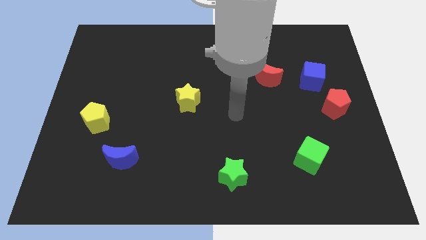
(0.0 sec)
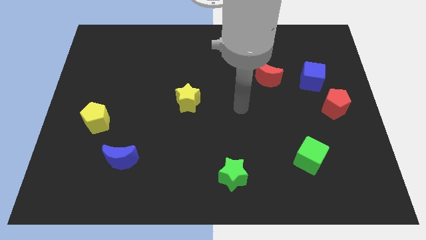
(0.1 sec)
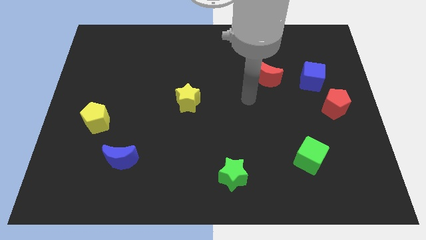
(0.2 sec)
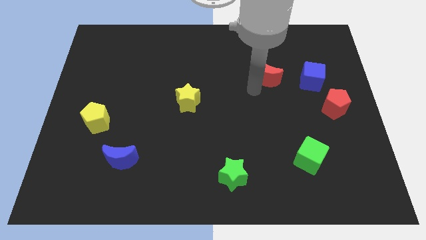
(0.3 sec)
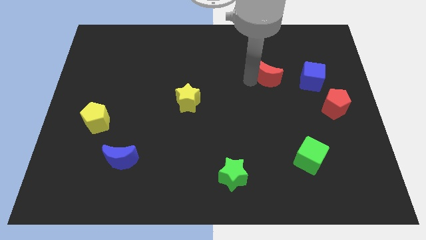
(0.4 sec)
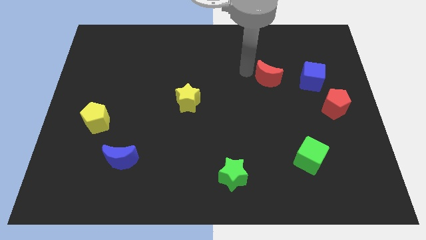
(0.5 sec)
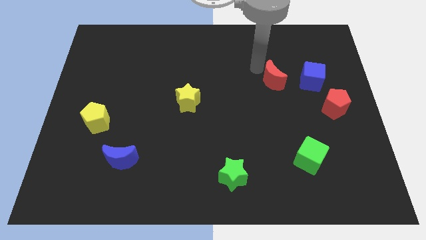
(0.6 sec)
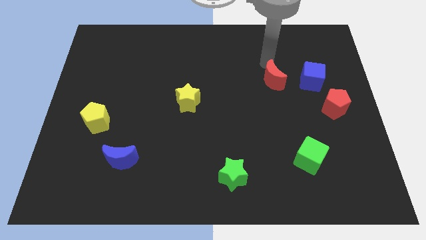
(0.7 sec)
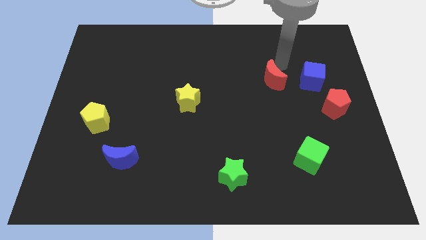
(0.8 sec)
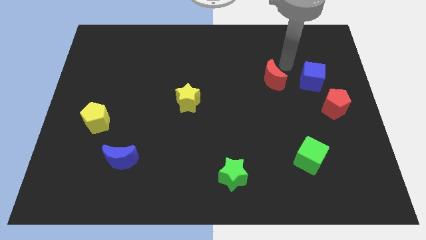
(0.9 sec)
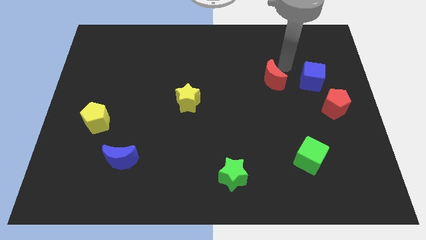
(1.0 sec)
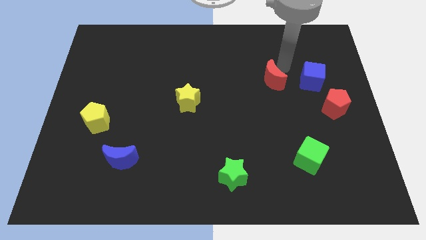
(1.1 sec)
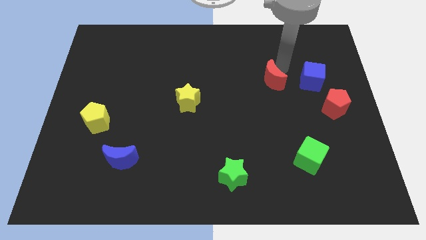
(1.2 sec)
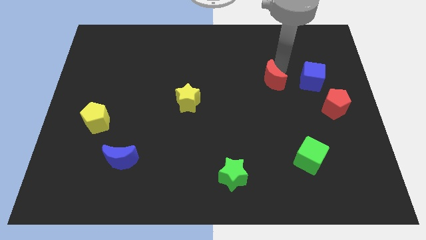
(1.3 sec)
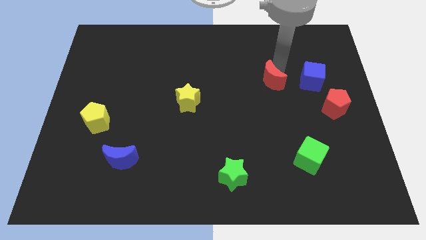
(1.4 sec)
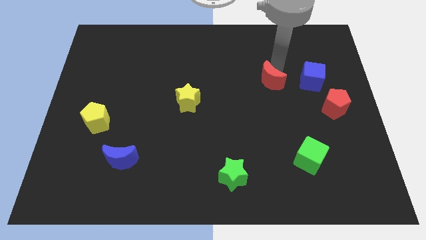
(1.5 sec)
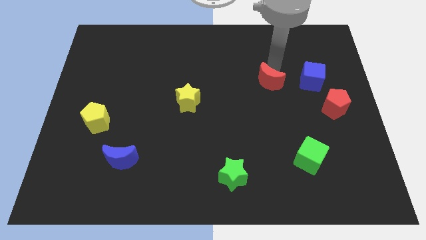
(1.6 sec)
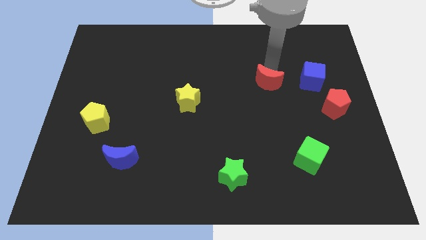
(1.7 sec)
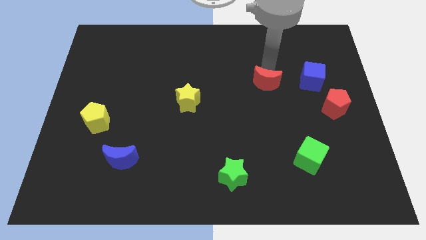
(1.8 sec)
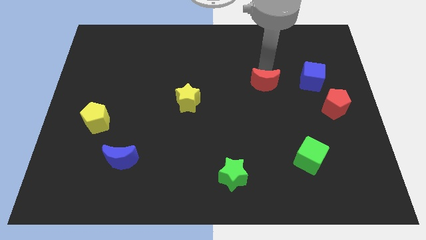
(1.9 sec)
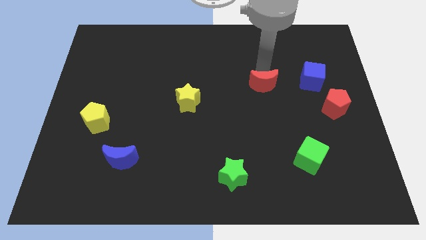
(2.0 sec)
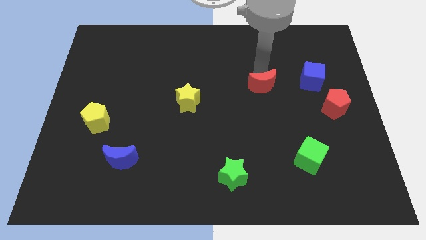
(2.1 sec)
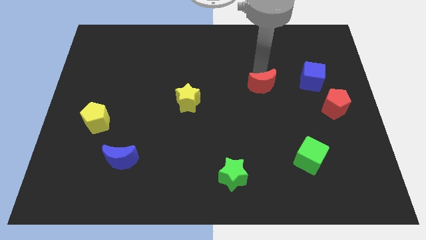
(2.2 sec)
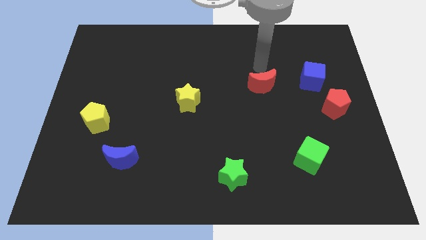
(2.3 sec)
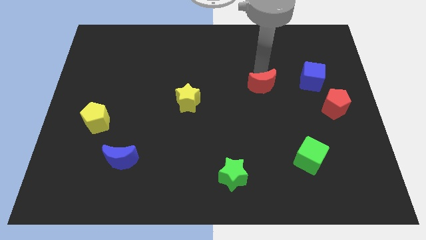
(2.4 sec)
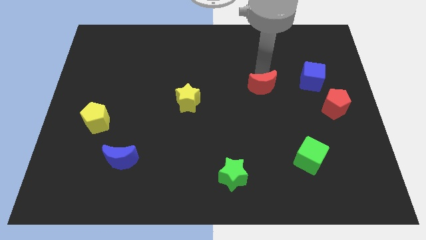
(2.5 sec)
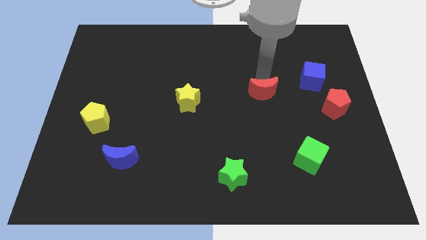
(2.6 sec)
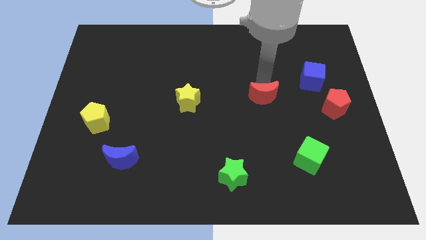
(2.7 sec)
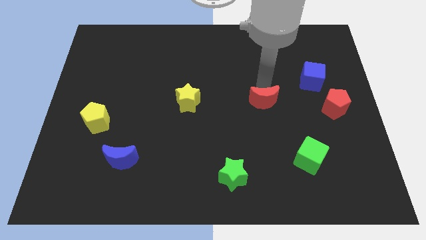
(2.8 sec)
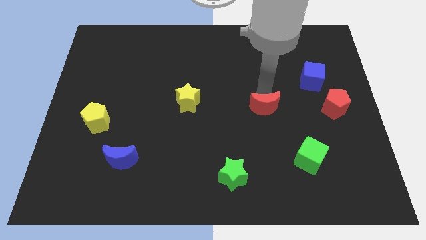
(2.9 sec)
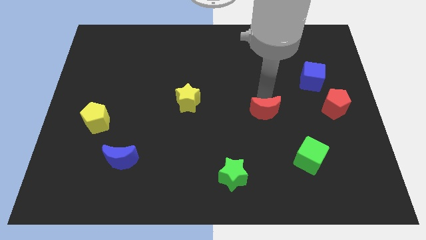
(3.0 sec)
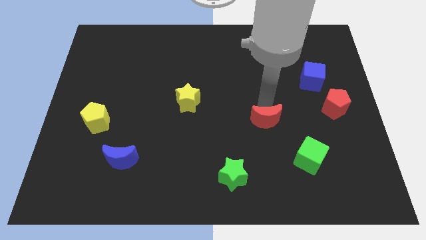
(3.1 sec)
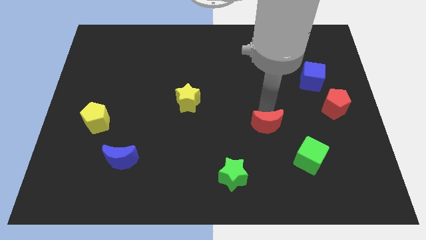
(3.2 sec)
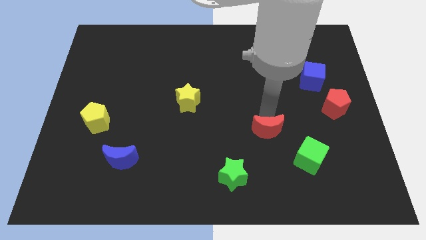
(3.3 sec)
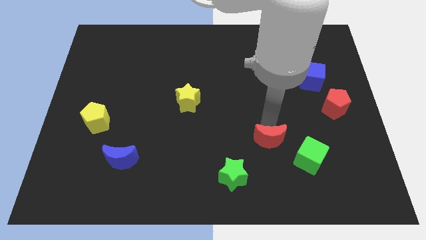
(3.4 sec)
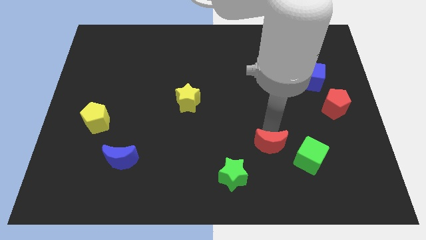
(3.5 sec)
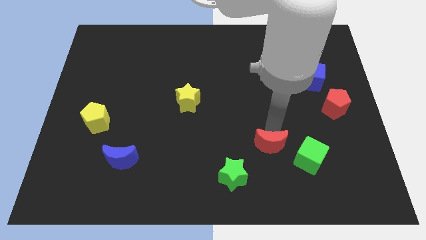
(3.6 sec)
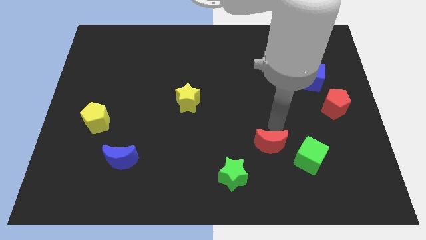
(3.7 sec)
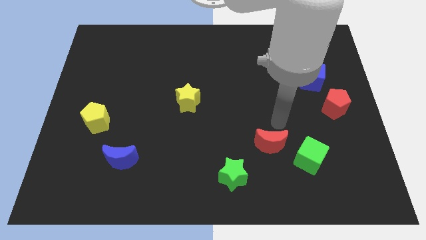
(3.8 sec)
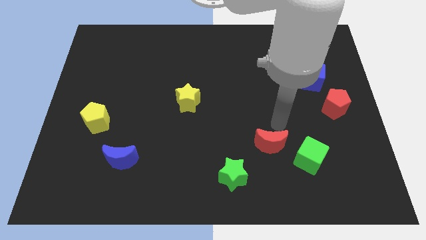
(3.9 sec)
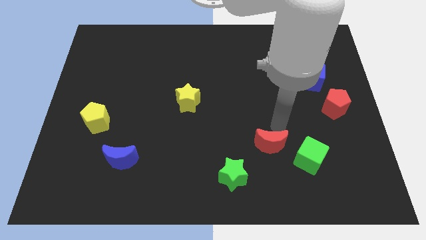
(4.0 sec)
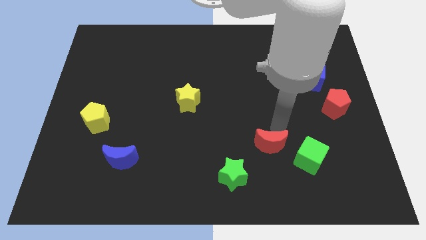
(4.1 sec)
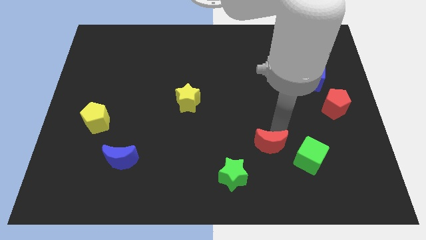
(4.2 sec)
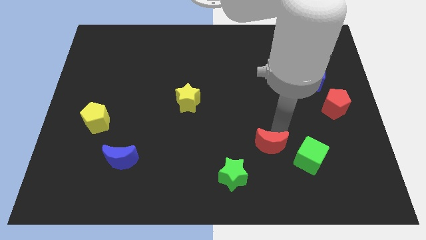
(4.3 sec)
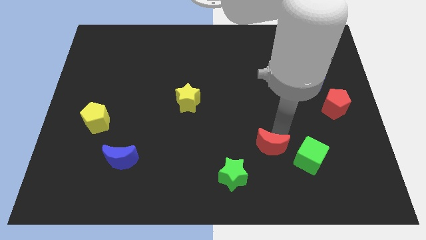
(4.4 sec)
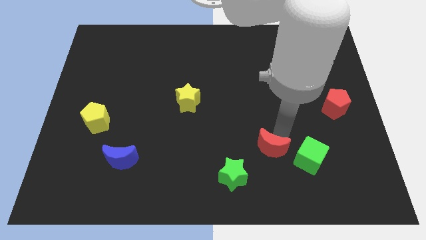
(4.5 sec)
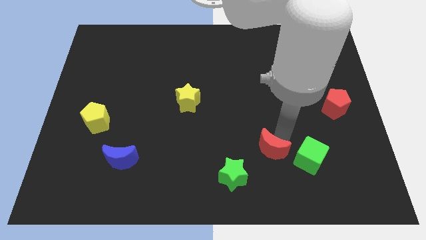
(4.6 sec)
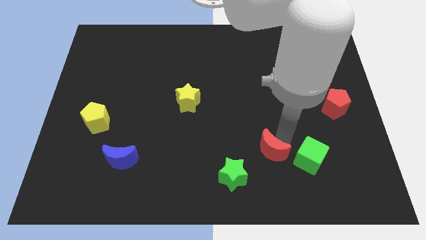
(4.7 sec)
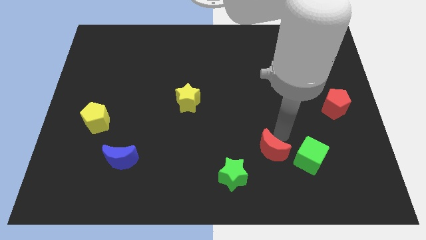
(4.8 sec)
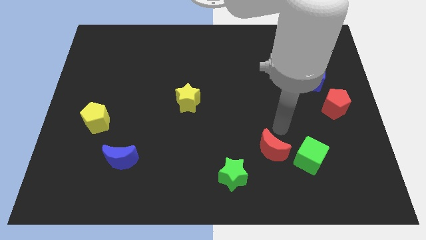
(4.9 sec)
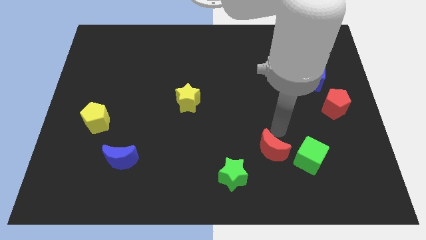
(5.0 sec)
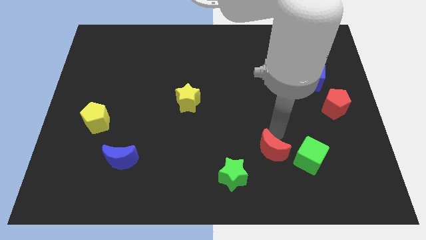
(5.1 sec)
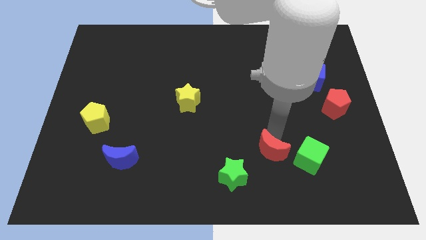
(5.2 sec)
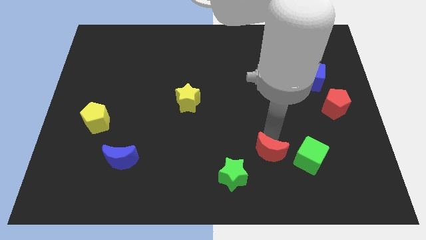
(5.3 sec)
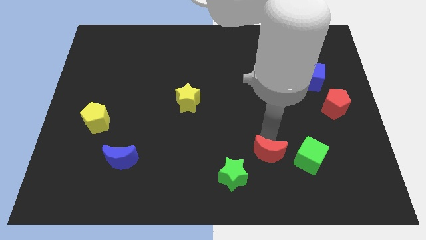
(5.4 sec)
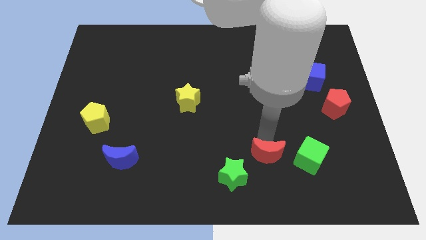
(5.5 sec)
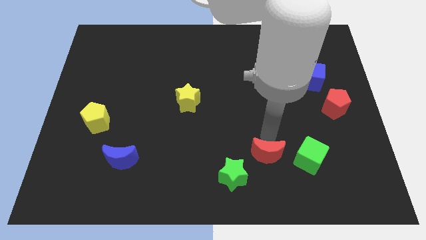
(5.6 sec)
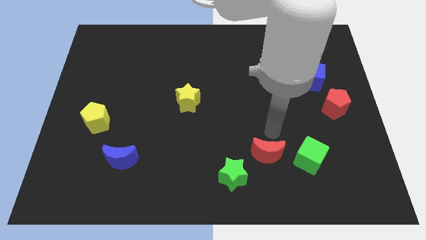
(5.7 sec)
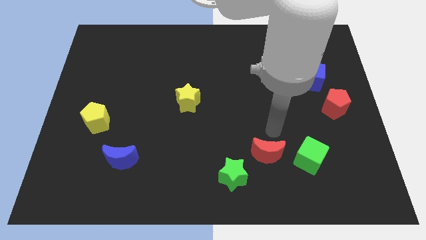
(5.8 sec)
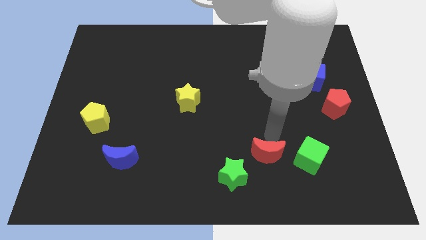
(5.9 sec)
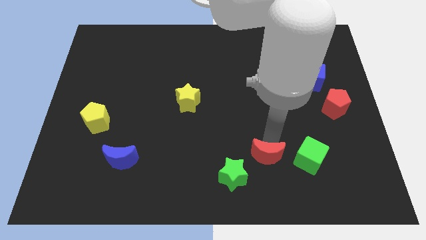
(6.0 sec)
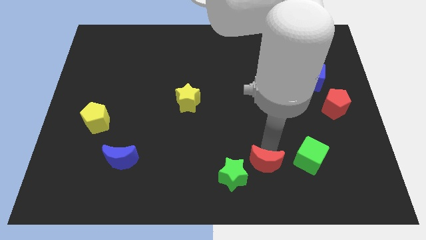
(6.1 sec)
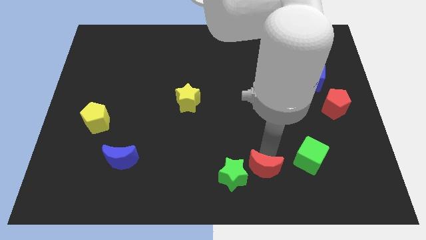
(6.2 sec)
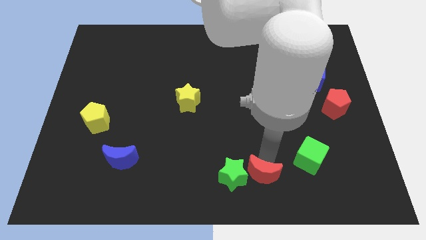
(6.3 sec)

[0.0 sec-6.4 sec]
push the red moon to the bottom
